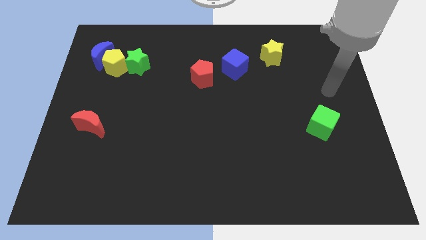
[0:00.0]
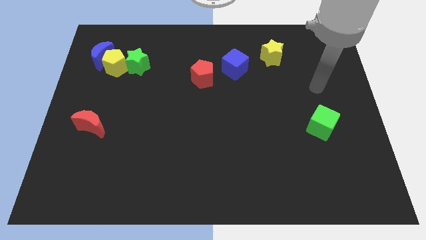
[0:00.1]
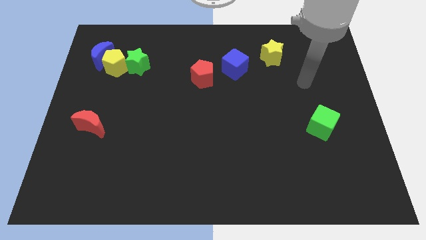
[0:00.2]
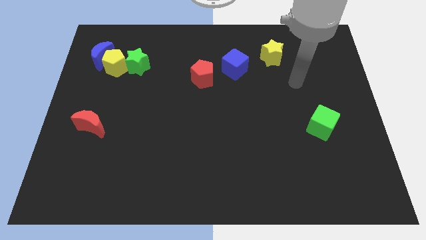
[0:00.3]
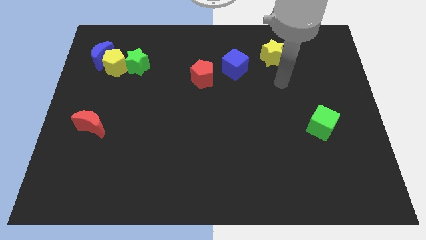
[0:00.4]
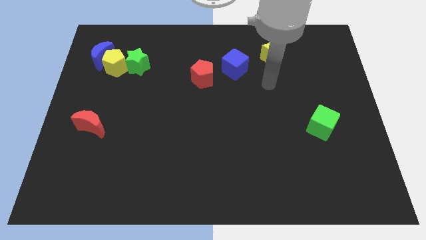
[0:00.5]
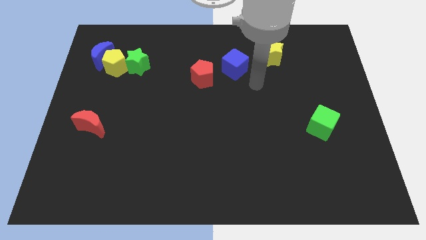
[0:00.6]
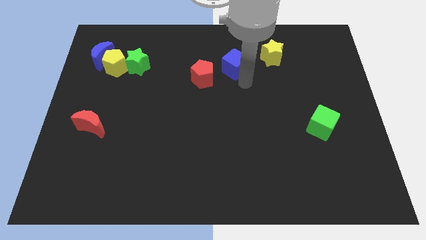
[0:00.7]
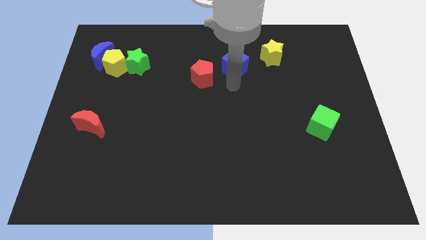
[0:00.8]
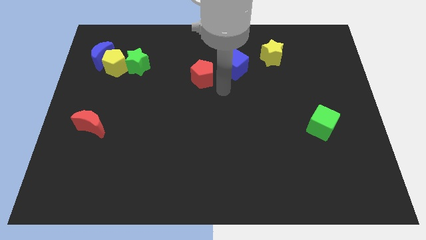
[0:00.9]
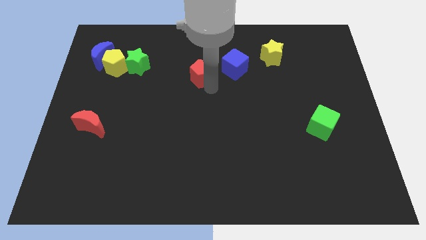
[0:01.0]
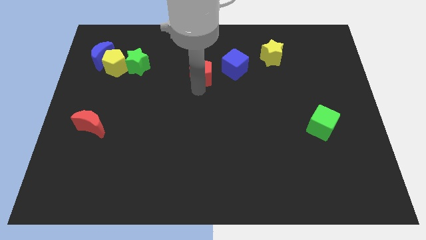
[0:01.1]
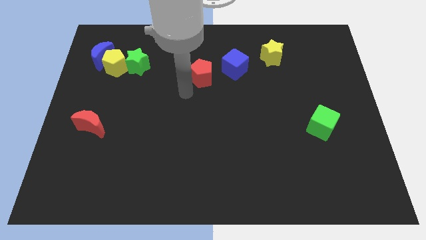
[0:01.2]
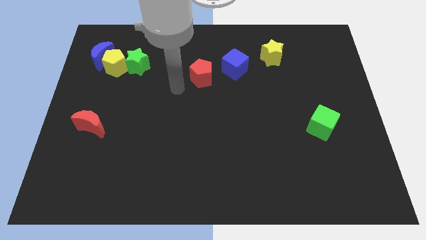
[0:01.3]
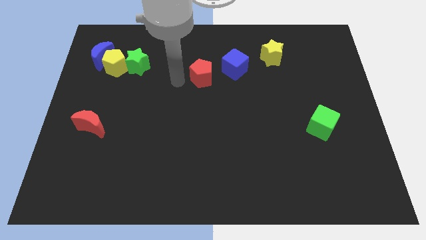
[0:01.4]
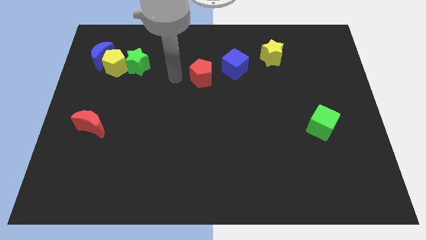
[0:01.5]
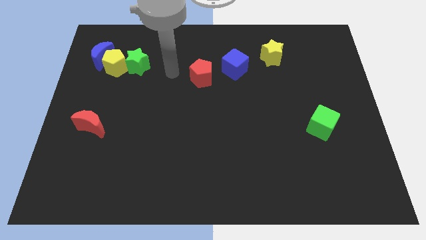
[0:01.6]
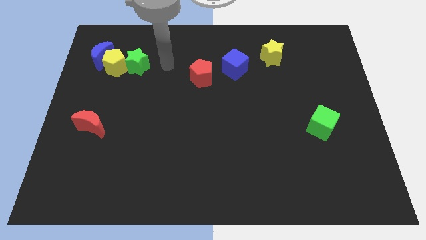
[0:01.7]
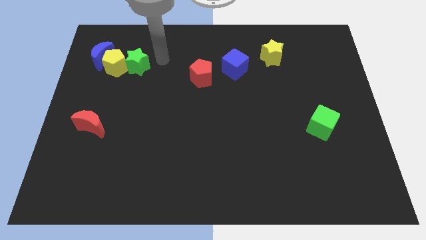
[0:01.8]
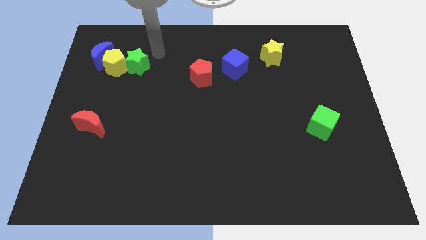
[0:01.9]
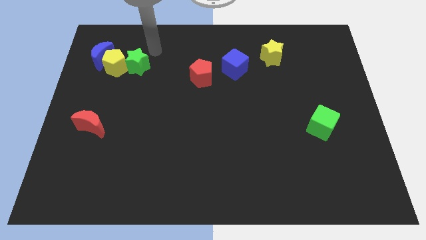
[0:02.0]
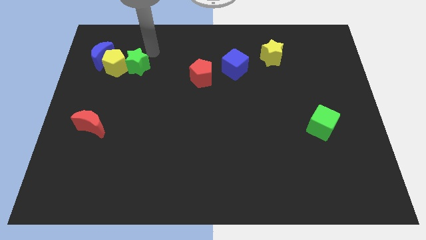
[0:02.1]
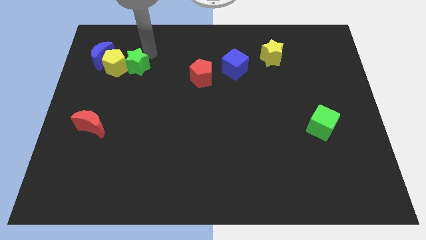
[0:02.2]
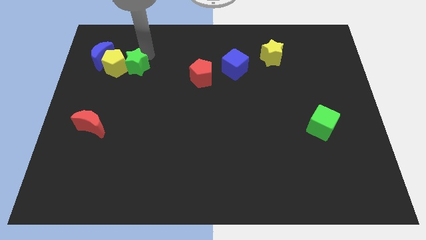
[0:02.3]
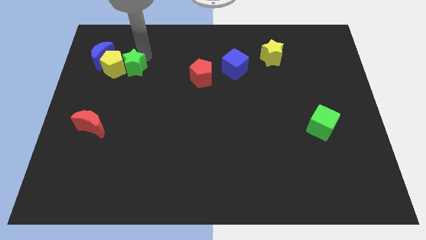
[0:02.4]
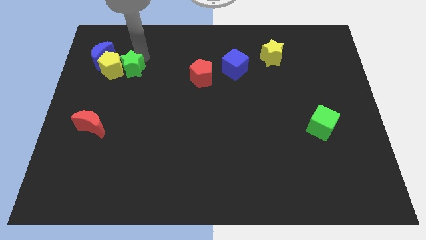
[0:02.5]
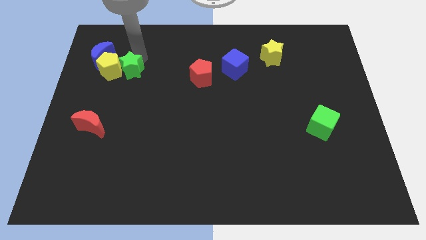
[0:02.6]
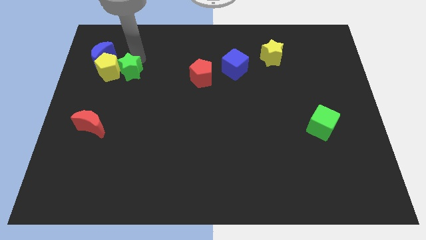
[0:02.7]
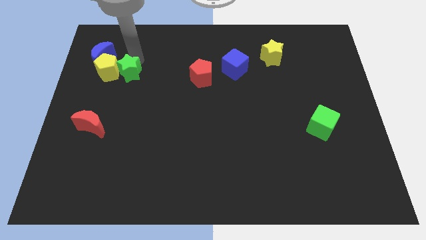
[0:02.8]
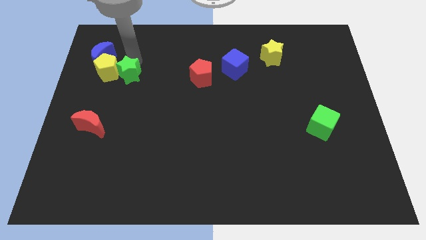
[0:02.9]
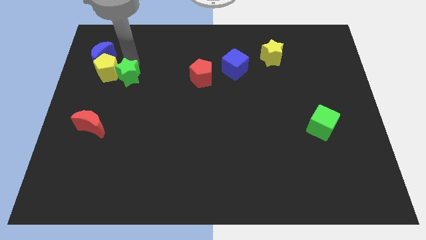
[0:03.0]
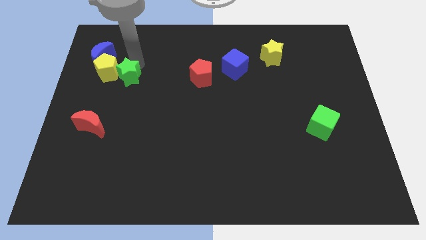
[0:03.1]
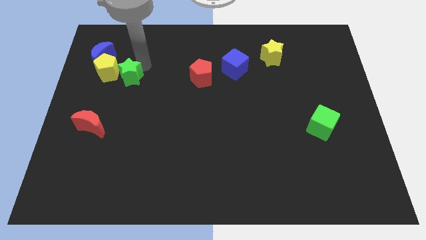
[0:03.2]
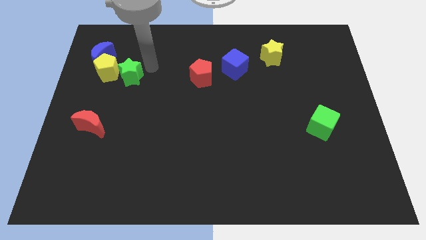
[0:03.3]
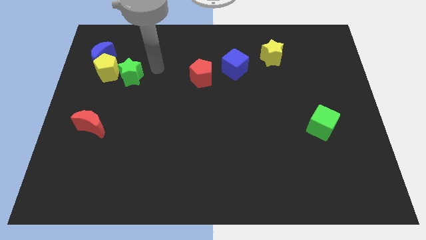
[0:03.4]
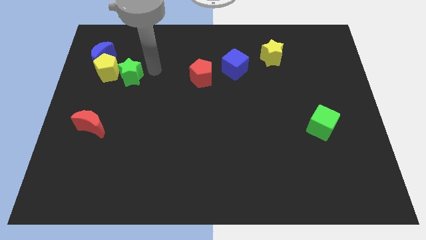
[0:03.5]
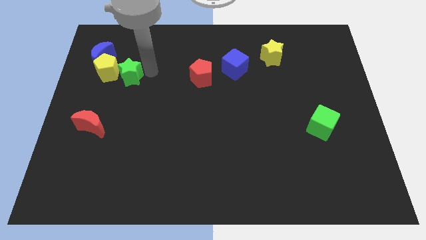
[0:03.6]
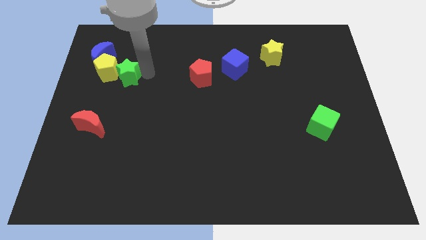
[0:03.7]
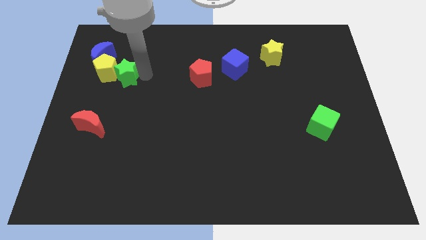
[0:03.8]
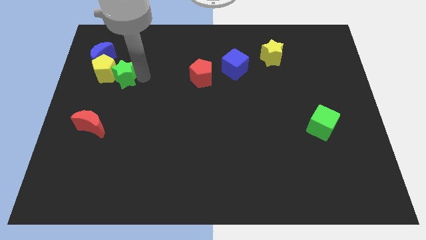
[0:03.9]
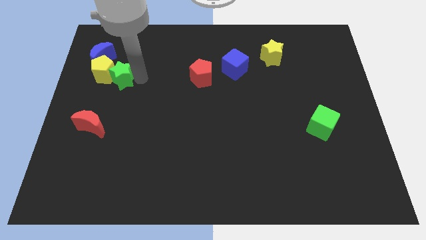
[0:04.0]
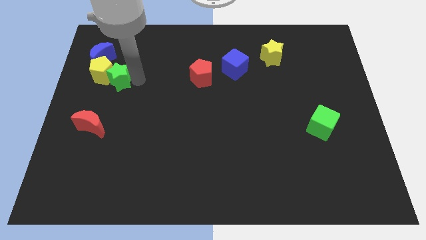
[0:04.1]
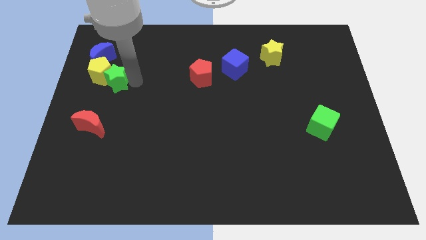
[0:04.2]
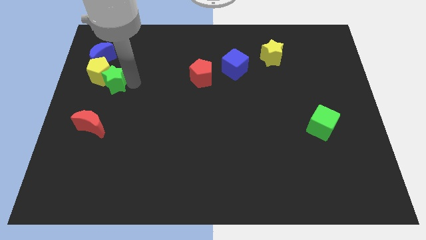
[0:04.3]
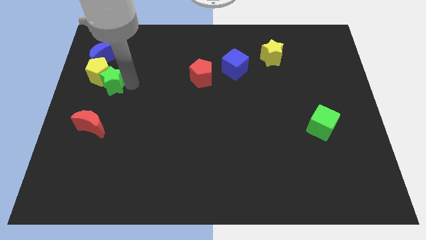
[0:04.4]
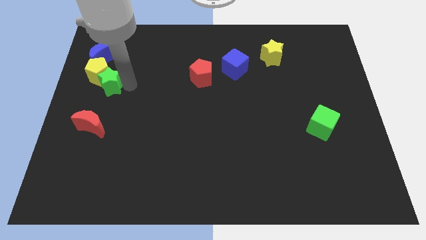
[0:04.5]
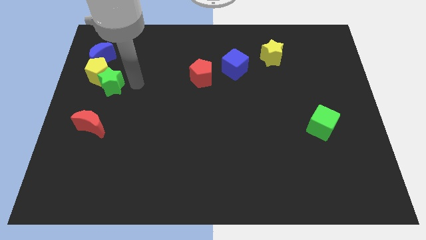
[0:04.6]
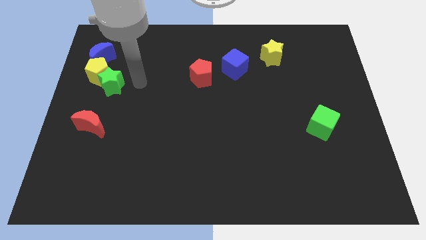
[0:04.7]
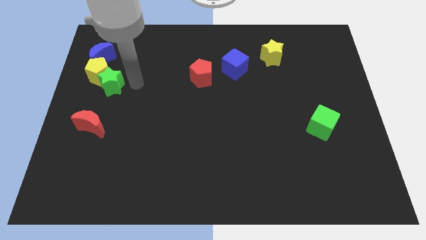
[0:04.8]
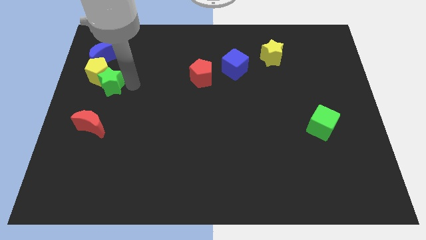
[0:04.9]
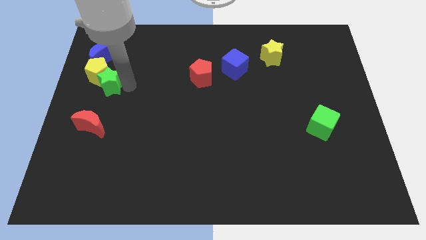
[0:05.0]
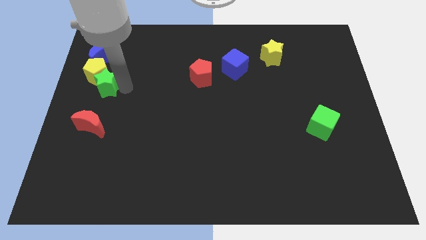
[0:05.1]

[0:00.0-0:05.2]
slide the green star to the left side of the board

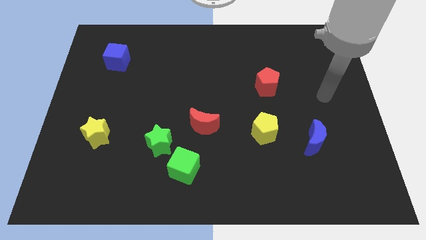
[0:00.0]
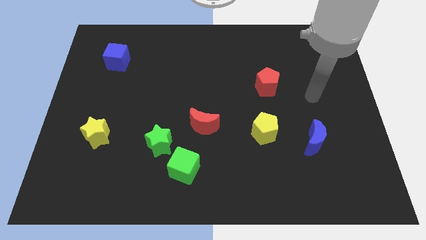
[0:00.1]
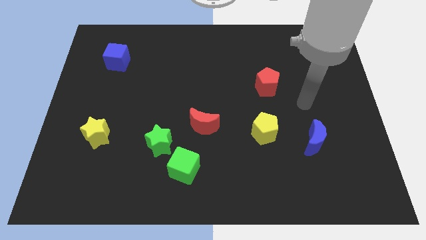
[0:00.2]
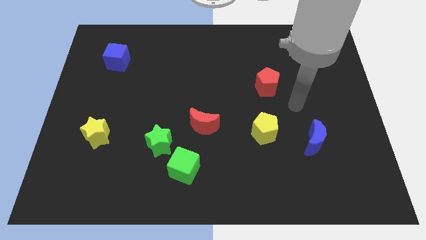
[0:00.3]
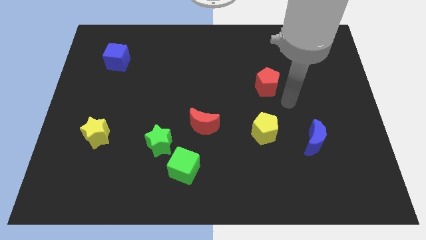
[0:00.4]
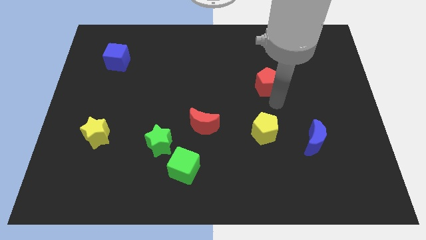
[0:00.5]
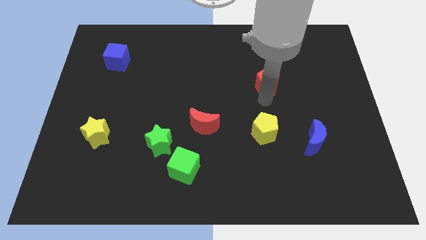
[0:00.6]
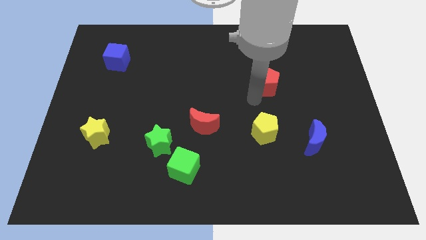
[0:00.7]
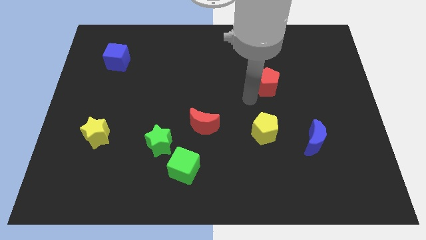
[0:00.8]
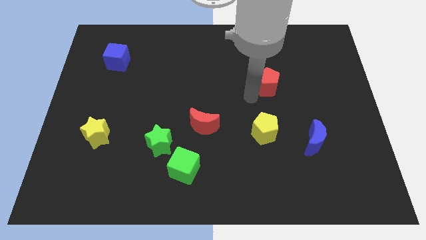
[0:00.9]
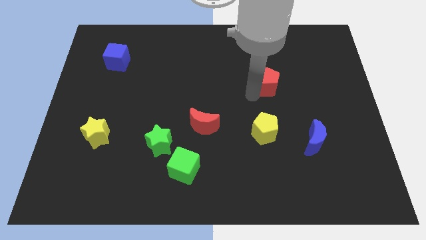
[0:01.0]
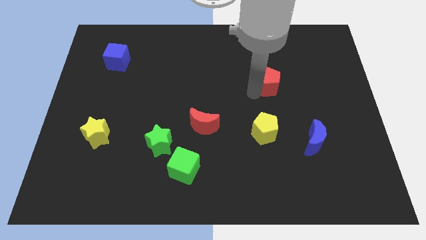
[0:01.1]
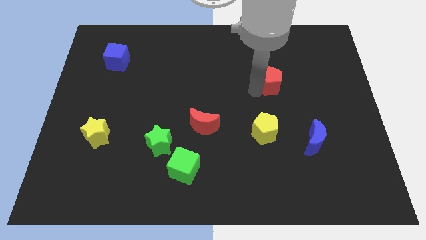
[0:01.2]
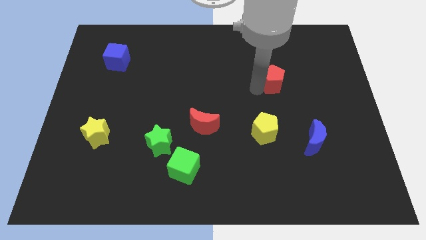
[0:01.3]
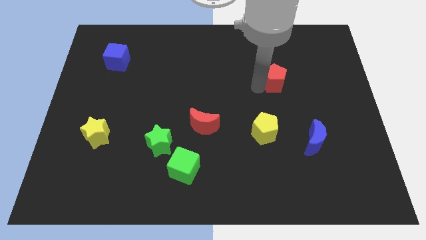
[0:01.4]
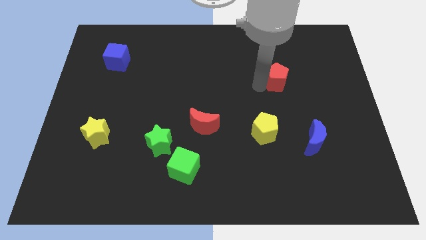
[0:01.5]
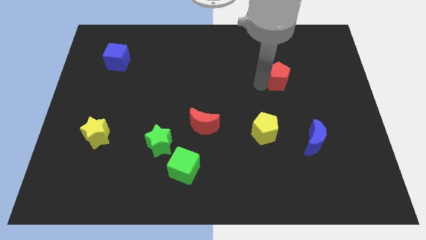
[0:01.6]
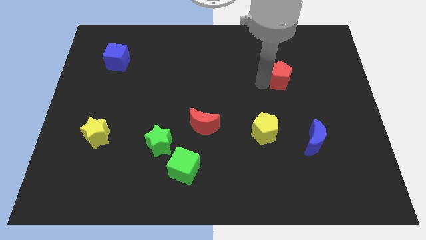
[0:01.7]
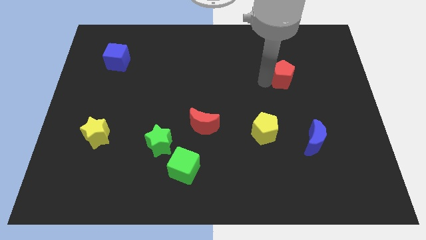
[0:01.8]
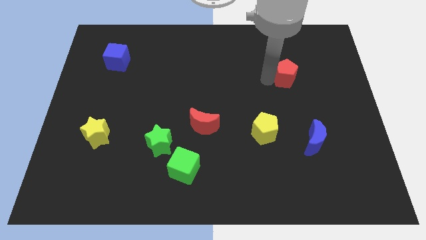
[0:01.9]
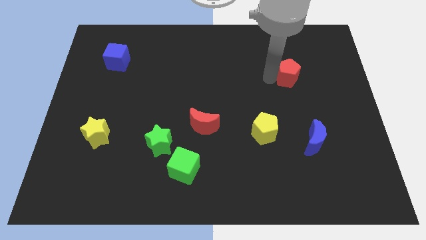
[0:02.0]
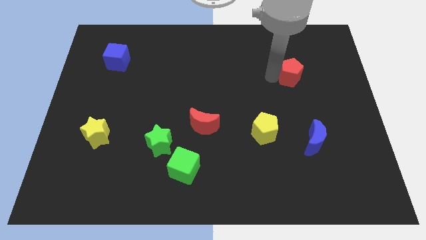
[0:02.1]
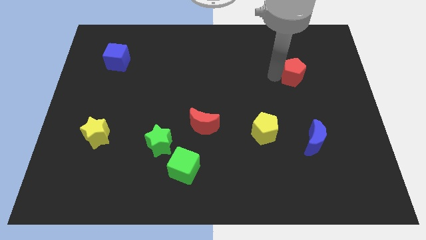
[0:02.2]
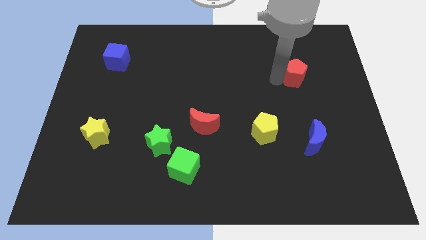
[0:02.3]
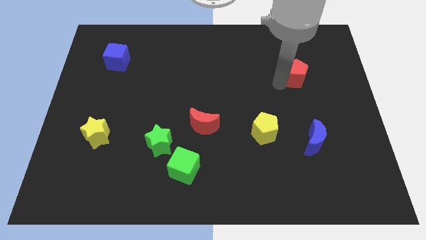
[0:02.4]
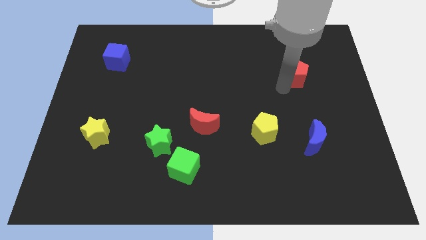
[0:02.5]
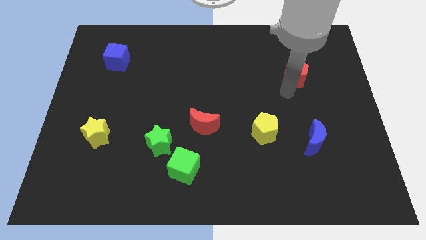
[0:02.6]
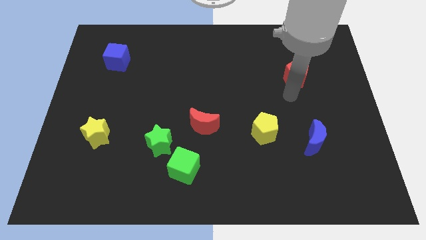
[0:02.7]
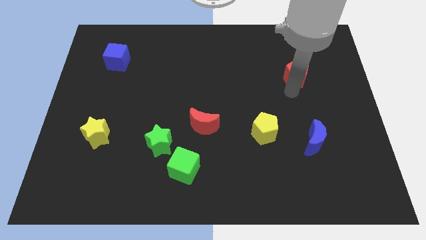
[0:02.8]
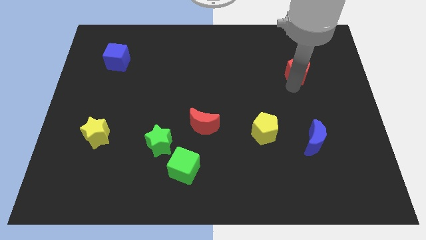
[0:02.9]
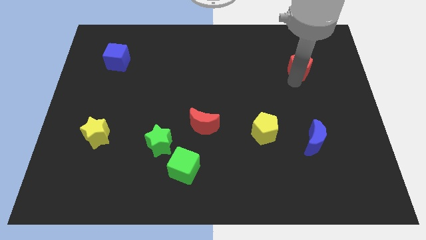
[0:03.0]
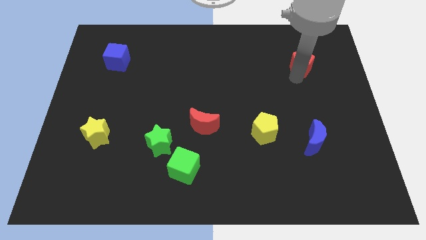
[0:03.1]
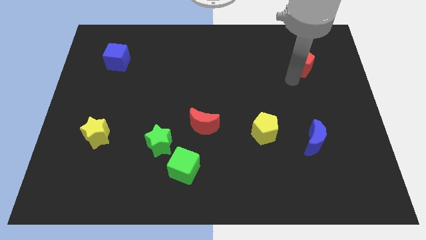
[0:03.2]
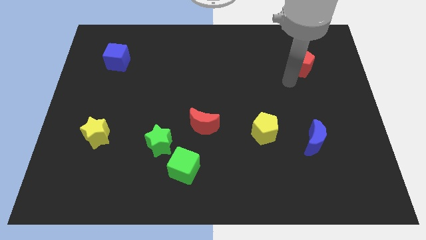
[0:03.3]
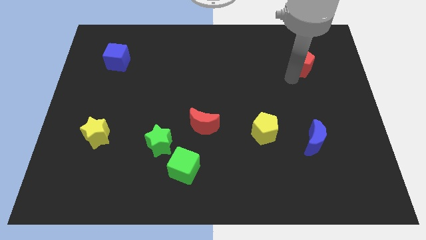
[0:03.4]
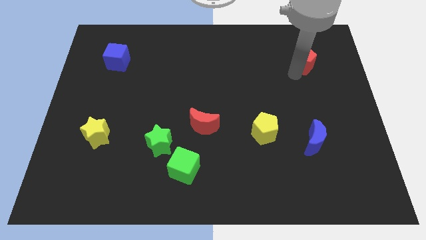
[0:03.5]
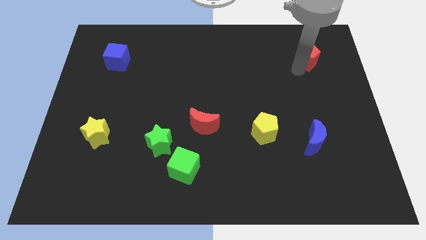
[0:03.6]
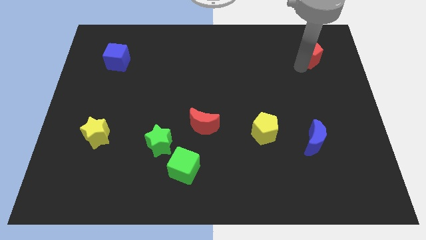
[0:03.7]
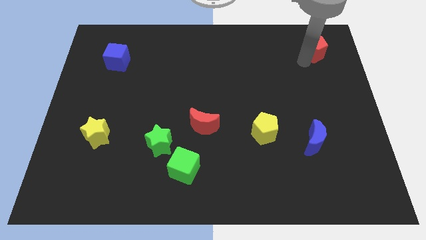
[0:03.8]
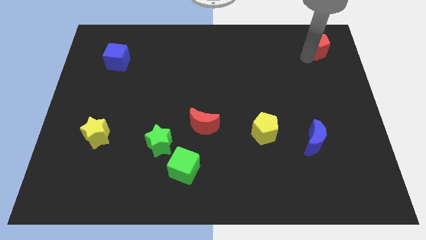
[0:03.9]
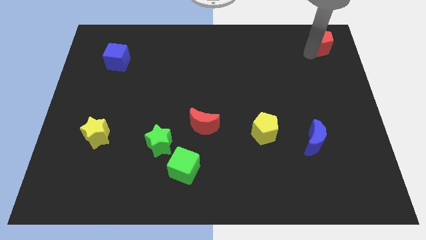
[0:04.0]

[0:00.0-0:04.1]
move the red pentagon to the top right
